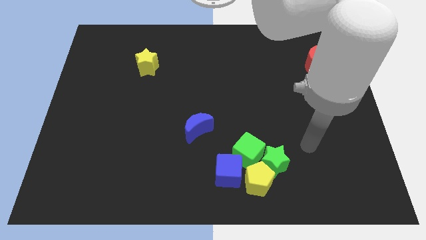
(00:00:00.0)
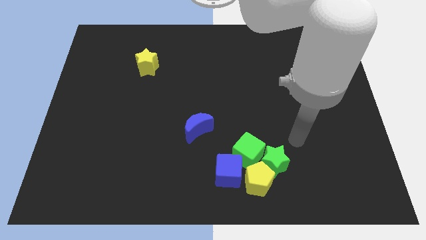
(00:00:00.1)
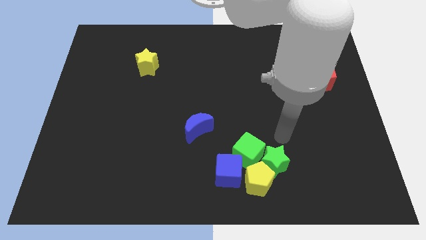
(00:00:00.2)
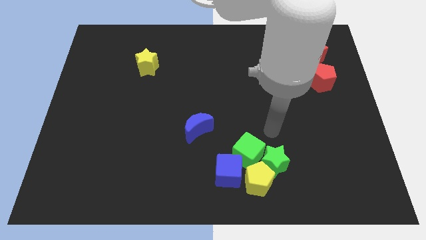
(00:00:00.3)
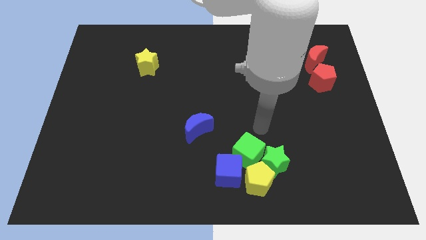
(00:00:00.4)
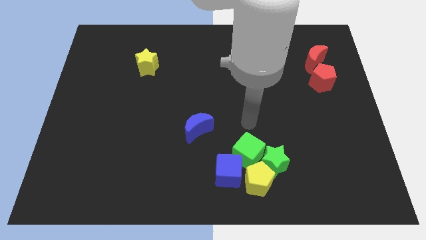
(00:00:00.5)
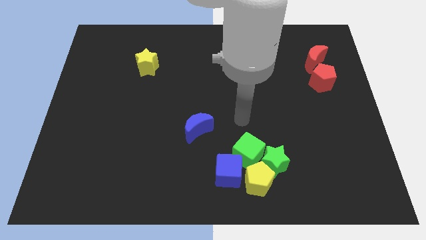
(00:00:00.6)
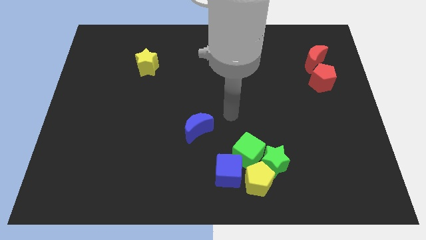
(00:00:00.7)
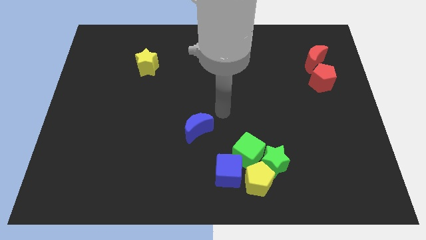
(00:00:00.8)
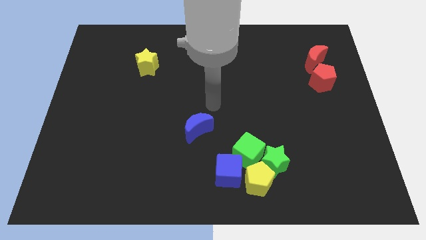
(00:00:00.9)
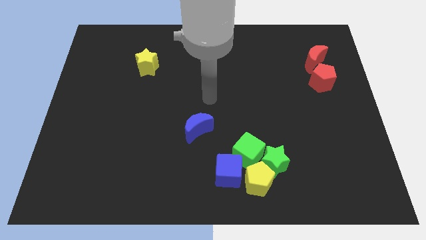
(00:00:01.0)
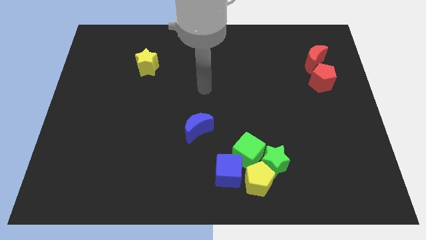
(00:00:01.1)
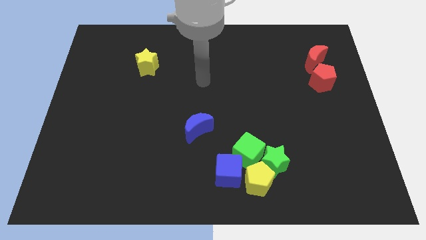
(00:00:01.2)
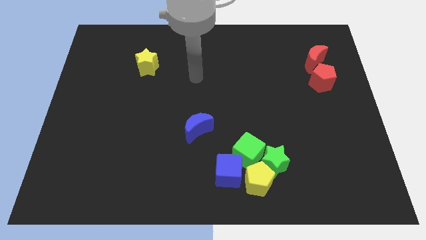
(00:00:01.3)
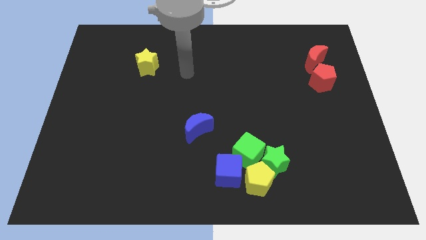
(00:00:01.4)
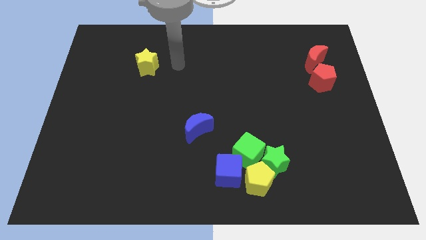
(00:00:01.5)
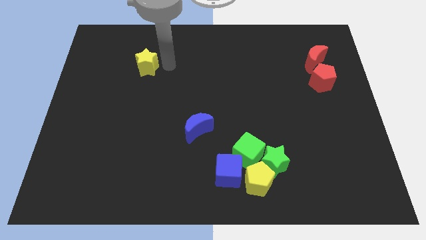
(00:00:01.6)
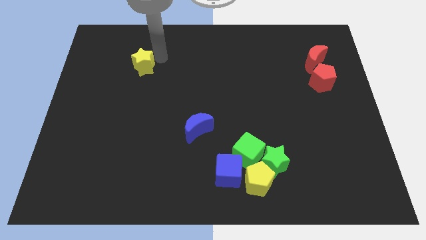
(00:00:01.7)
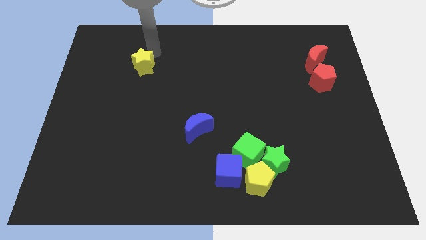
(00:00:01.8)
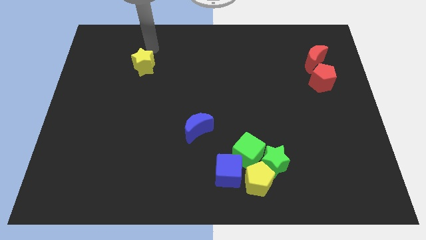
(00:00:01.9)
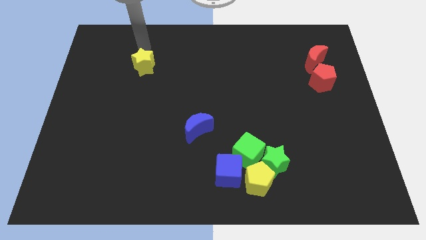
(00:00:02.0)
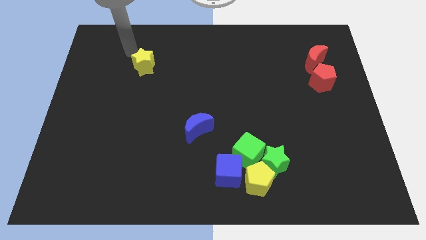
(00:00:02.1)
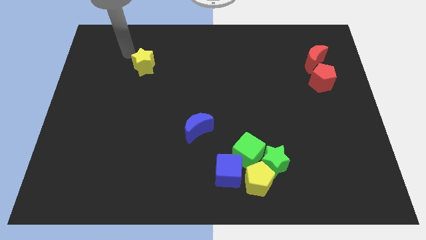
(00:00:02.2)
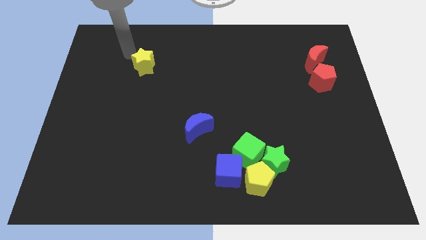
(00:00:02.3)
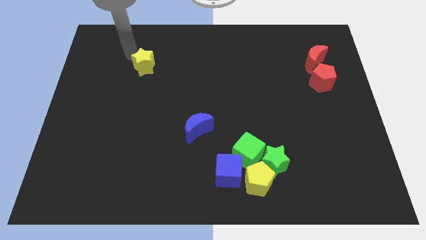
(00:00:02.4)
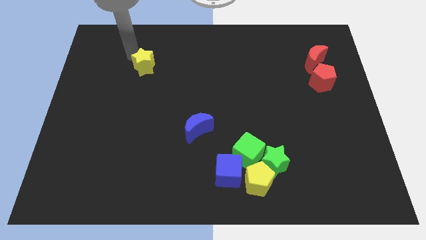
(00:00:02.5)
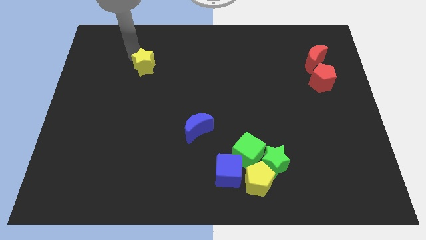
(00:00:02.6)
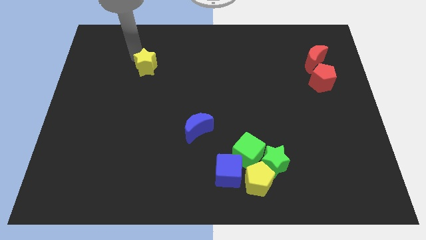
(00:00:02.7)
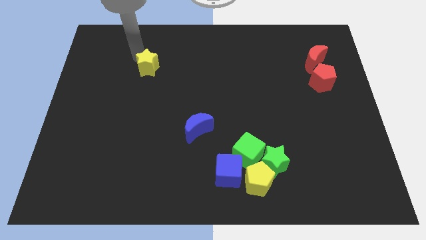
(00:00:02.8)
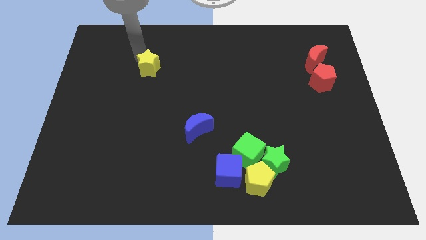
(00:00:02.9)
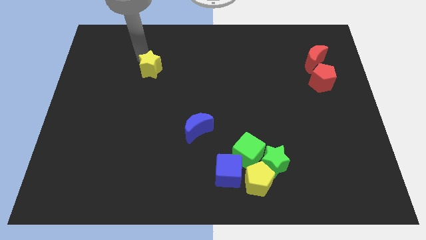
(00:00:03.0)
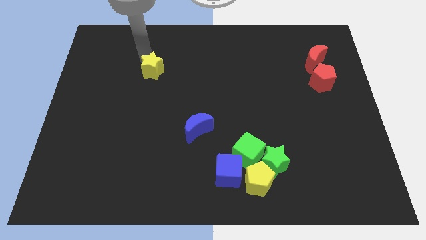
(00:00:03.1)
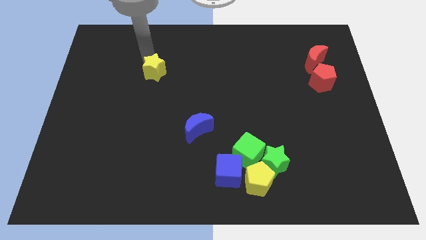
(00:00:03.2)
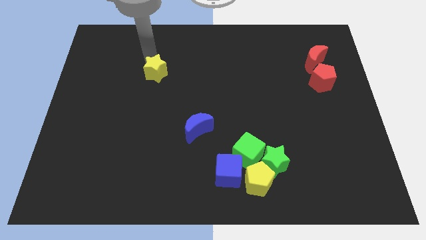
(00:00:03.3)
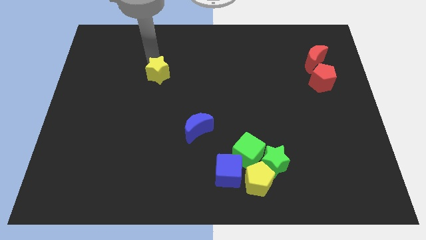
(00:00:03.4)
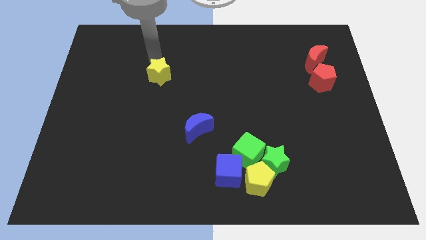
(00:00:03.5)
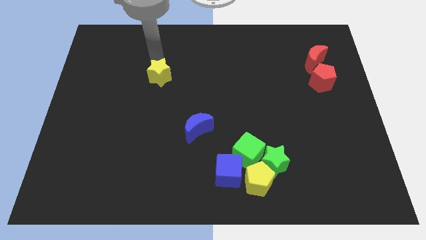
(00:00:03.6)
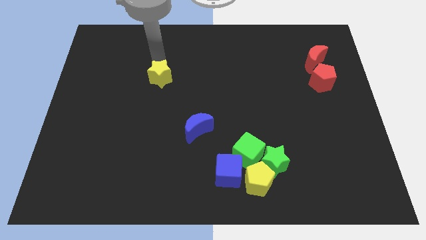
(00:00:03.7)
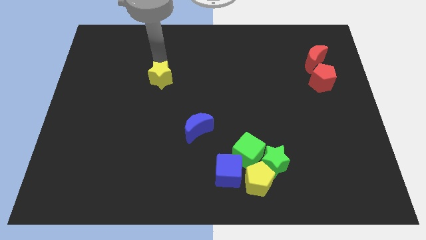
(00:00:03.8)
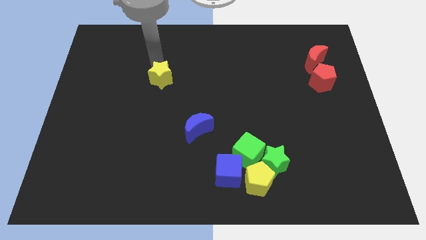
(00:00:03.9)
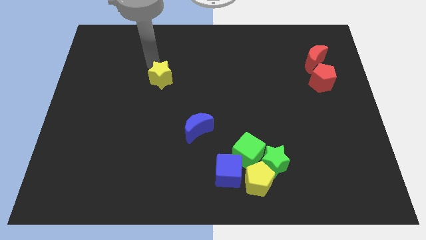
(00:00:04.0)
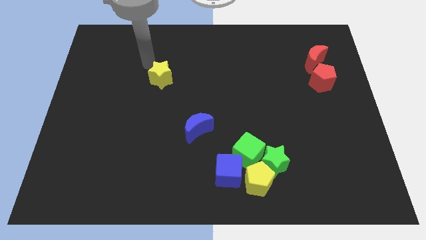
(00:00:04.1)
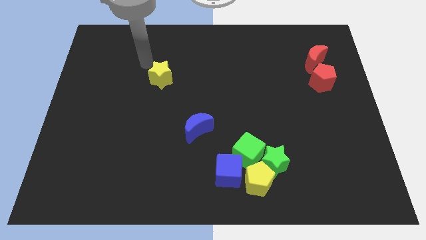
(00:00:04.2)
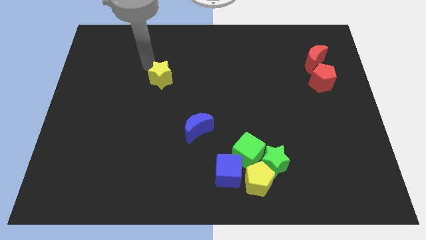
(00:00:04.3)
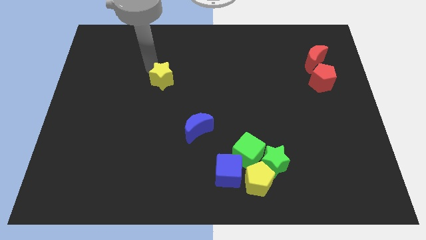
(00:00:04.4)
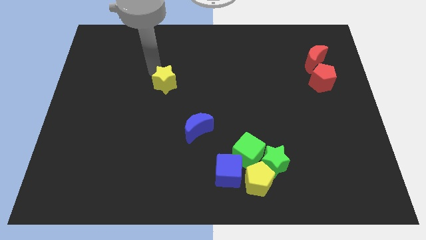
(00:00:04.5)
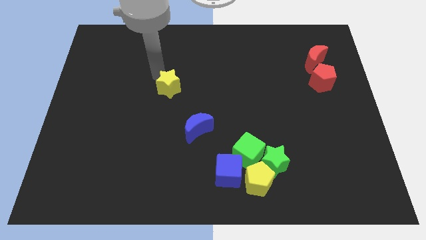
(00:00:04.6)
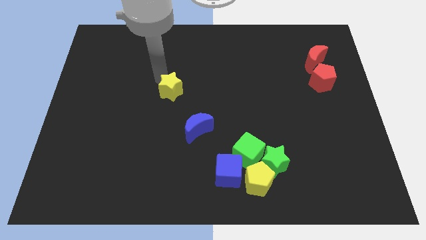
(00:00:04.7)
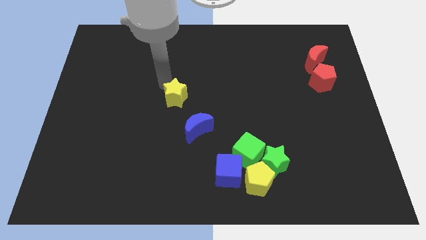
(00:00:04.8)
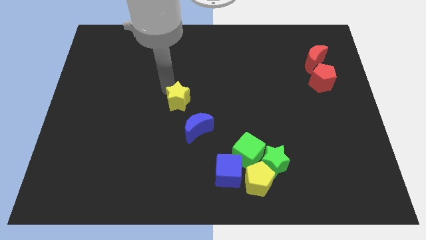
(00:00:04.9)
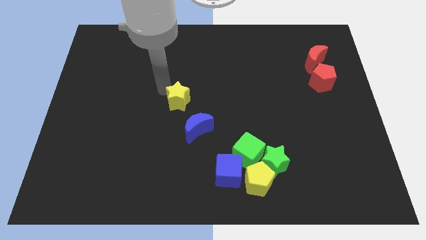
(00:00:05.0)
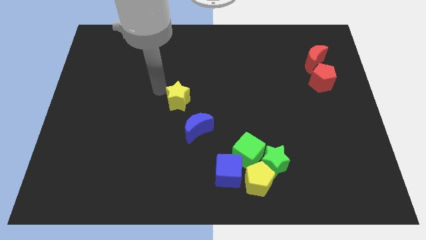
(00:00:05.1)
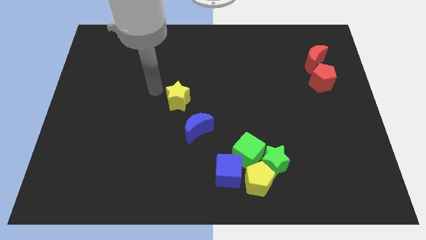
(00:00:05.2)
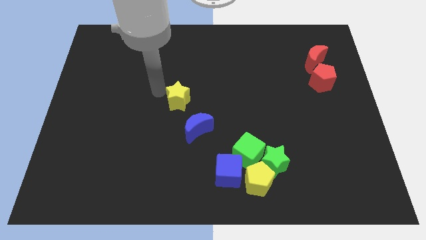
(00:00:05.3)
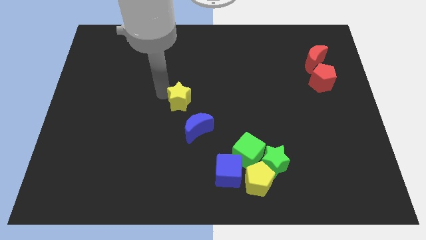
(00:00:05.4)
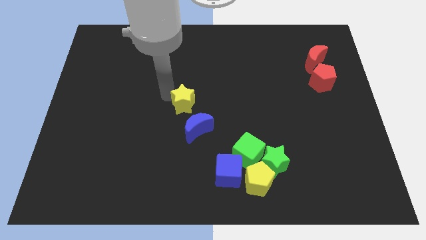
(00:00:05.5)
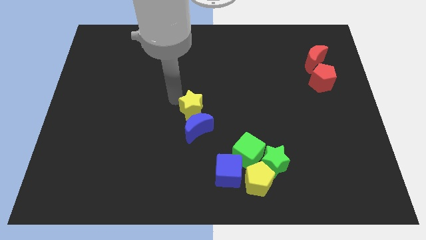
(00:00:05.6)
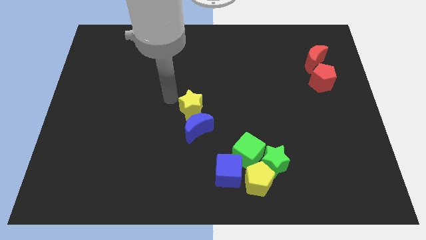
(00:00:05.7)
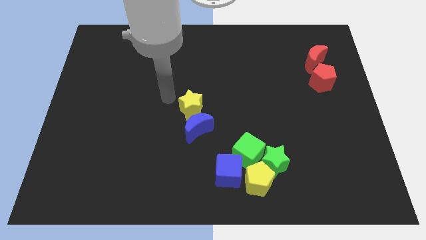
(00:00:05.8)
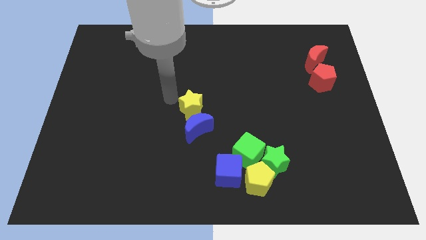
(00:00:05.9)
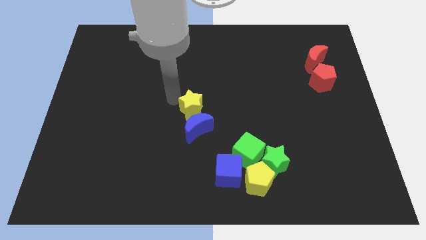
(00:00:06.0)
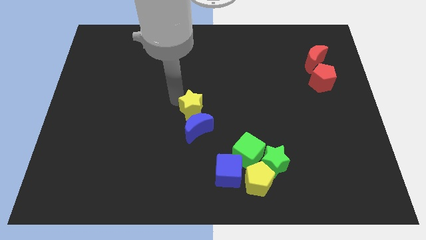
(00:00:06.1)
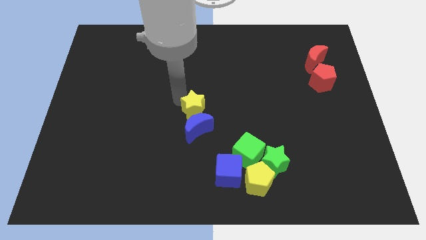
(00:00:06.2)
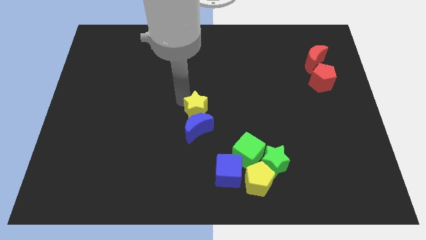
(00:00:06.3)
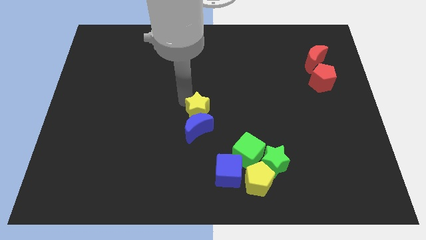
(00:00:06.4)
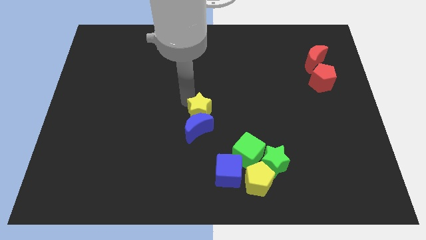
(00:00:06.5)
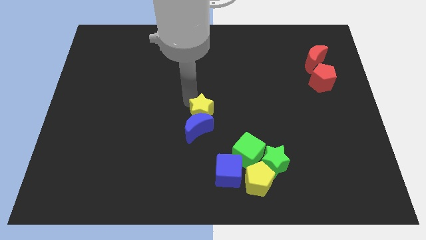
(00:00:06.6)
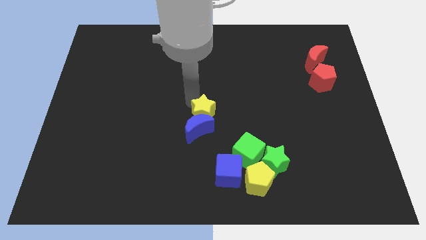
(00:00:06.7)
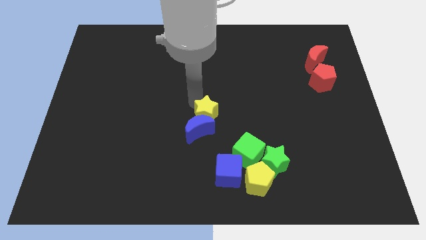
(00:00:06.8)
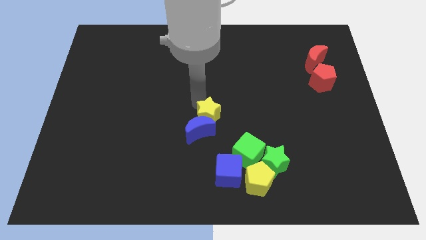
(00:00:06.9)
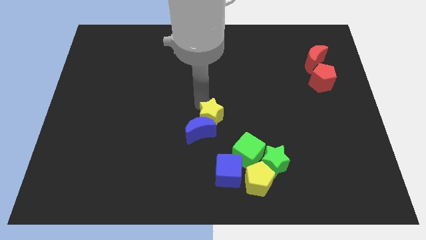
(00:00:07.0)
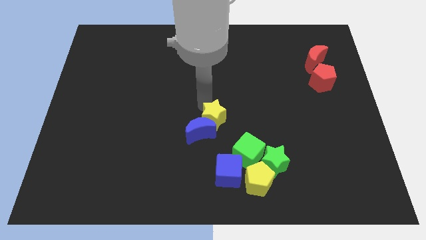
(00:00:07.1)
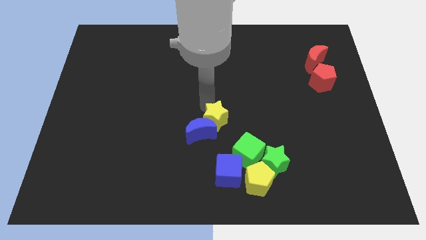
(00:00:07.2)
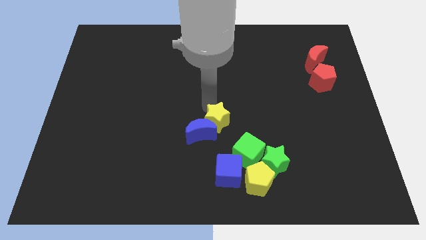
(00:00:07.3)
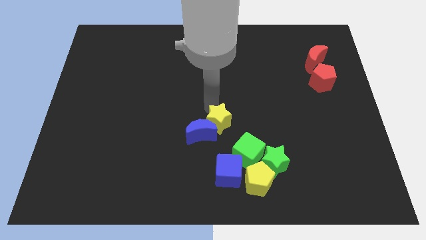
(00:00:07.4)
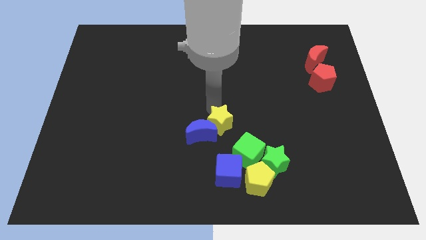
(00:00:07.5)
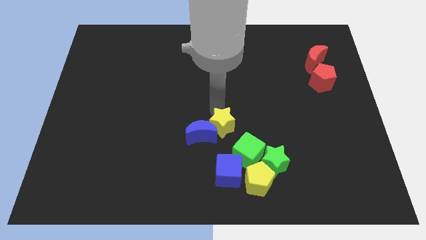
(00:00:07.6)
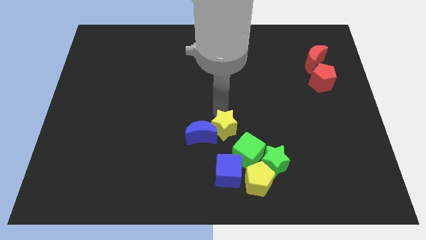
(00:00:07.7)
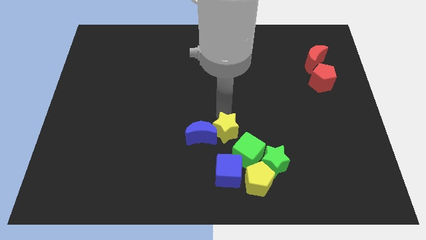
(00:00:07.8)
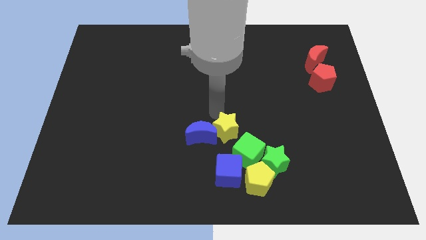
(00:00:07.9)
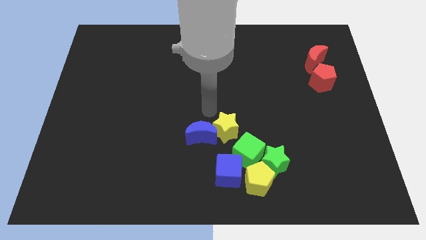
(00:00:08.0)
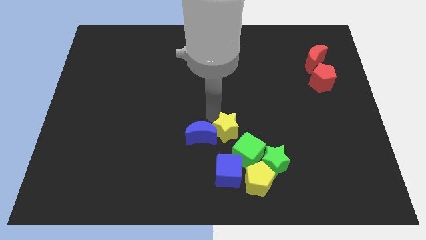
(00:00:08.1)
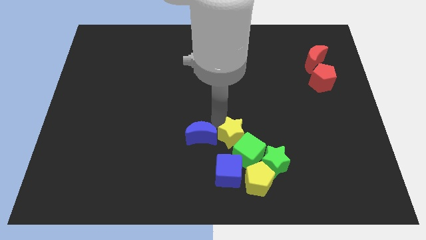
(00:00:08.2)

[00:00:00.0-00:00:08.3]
push the yellow star close to the green cube
